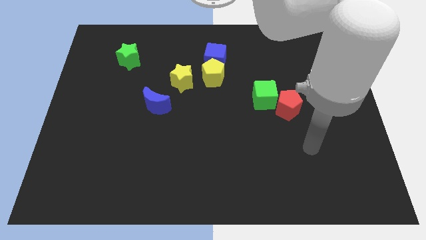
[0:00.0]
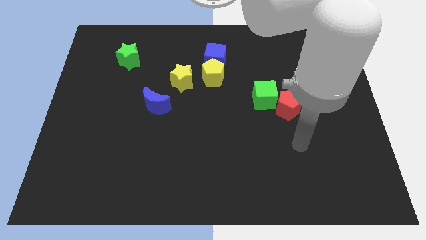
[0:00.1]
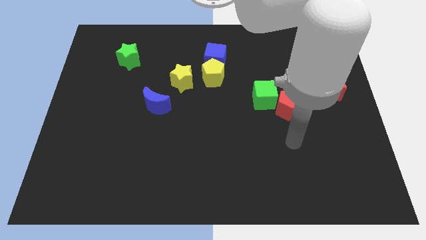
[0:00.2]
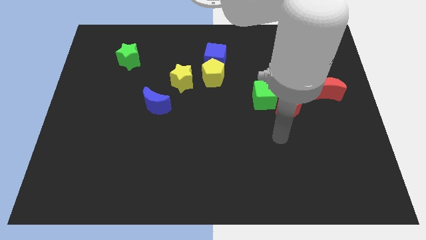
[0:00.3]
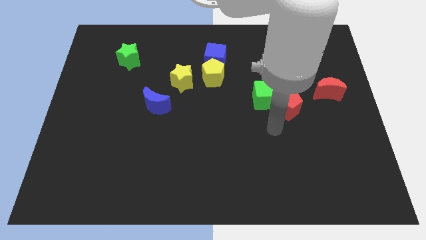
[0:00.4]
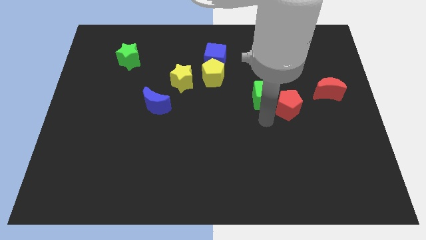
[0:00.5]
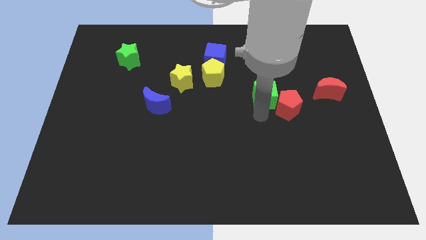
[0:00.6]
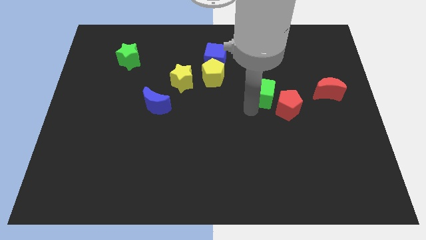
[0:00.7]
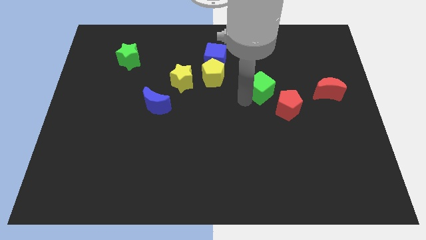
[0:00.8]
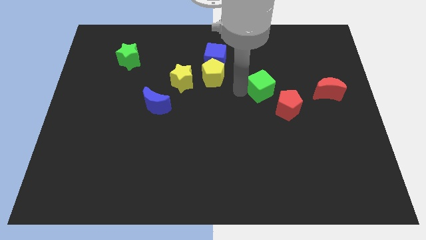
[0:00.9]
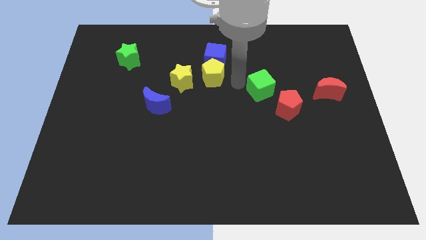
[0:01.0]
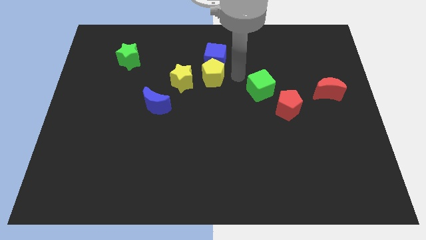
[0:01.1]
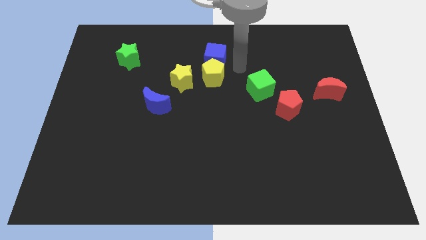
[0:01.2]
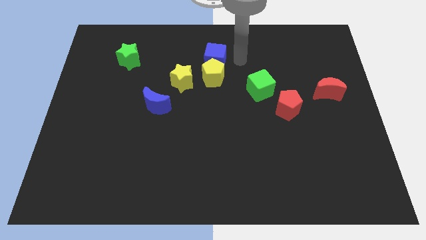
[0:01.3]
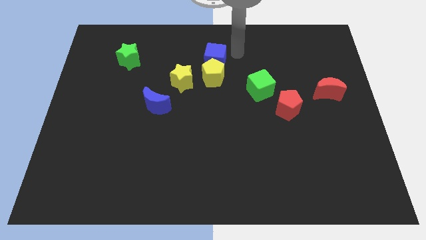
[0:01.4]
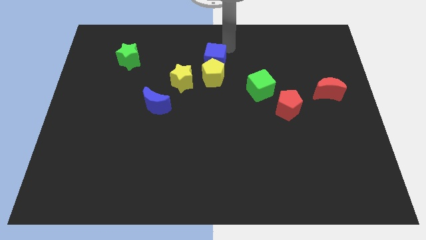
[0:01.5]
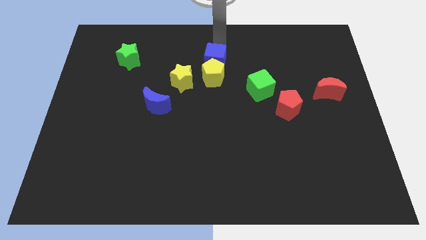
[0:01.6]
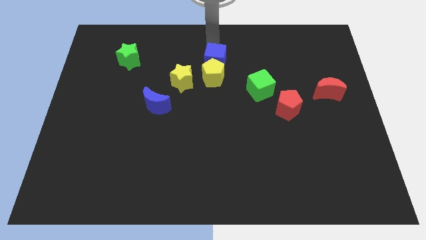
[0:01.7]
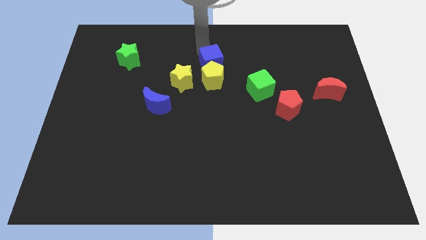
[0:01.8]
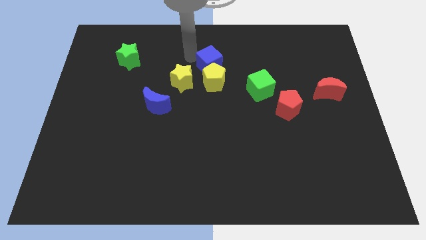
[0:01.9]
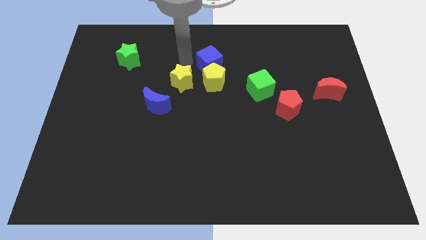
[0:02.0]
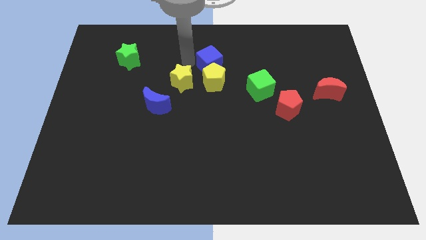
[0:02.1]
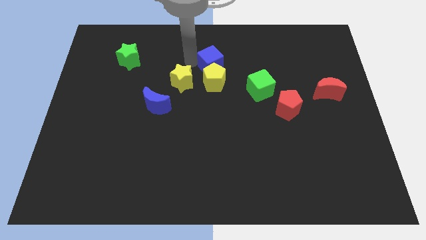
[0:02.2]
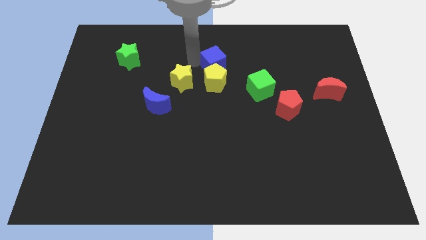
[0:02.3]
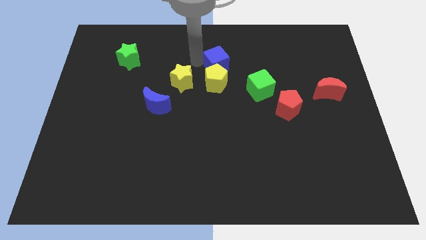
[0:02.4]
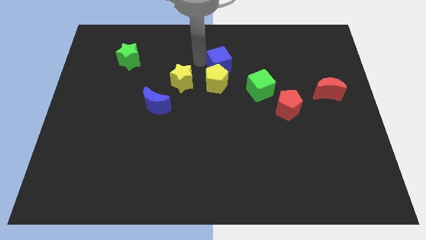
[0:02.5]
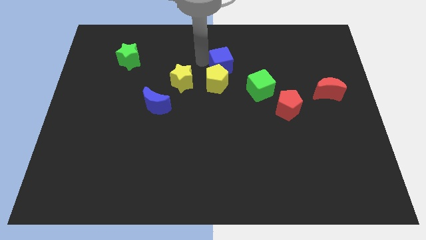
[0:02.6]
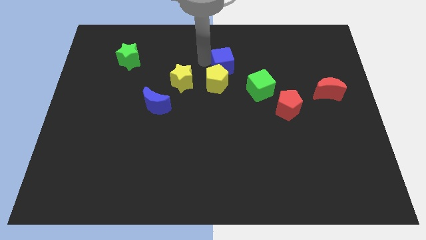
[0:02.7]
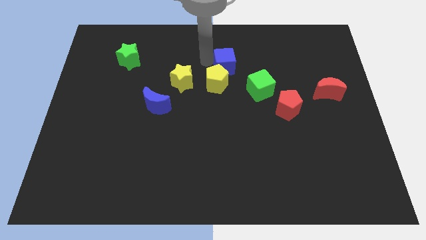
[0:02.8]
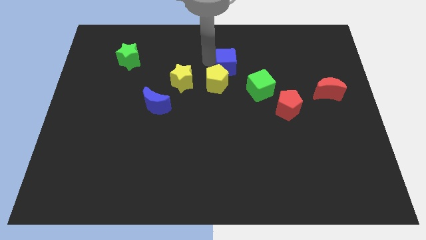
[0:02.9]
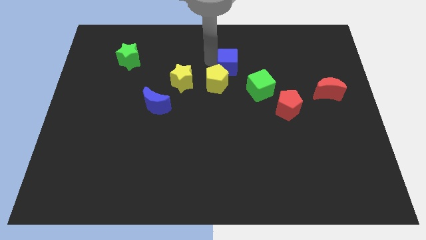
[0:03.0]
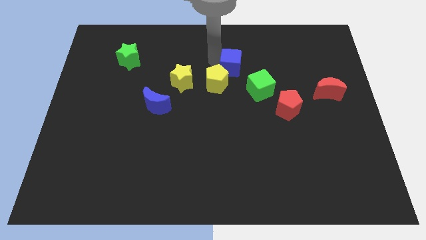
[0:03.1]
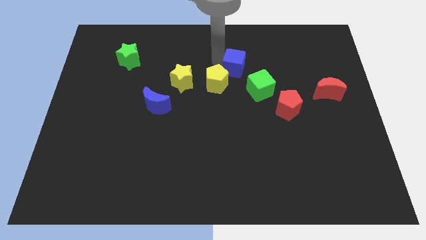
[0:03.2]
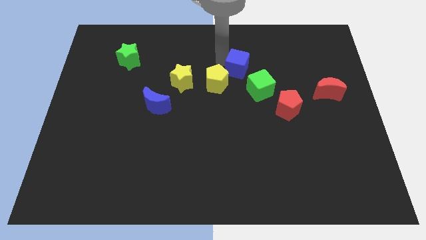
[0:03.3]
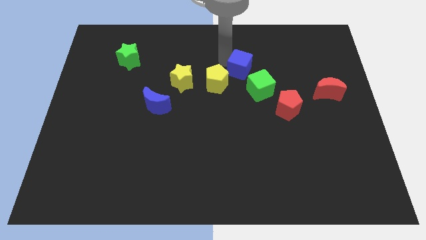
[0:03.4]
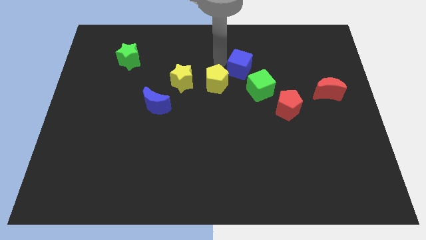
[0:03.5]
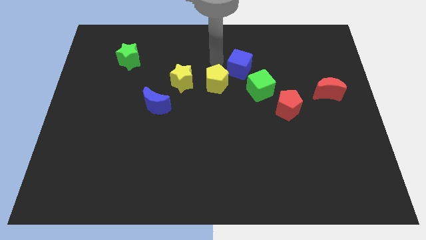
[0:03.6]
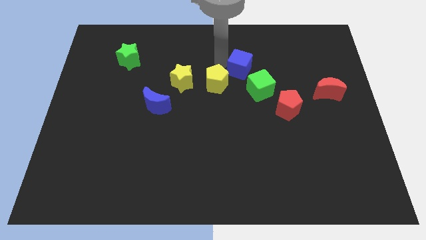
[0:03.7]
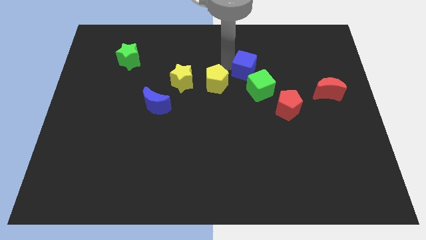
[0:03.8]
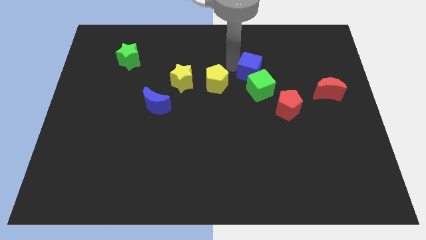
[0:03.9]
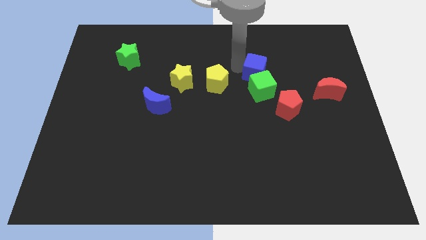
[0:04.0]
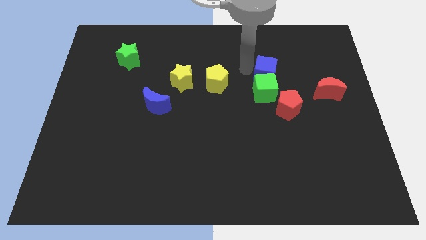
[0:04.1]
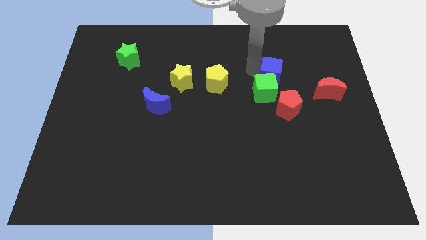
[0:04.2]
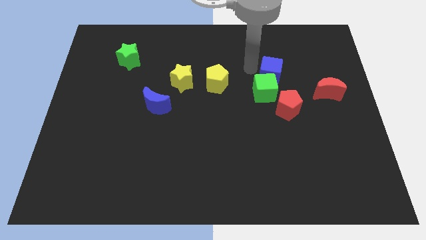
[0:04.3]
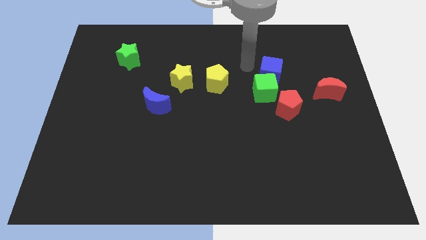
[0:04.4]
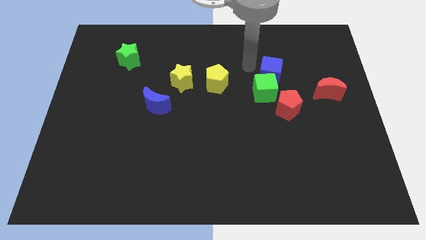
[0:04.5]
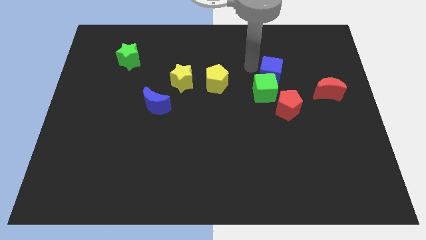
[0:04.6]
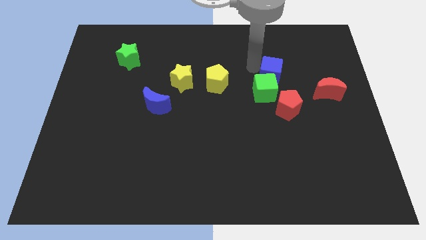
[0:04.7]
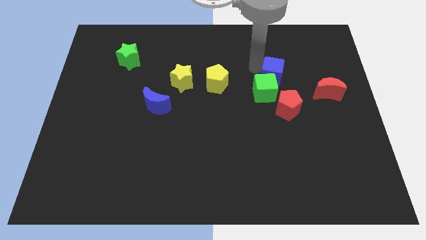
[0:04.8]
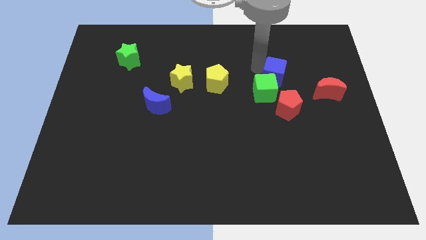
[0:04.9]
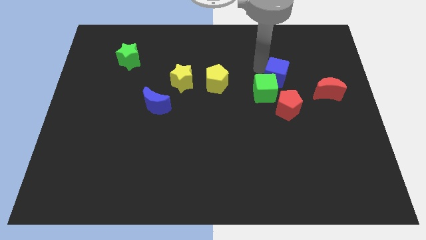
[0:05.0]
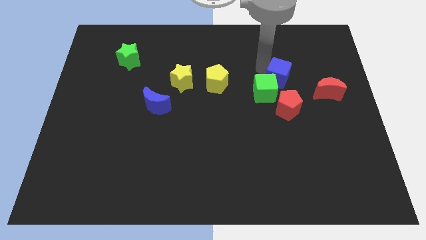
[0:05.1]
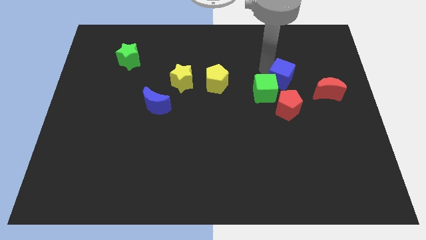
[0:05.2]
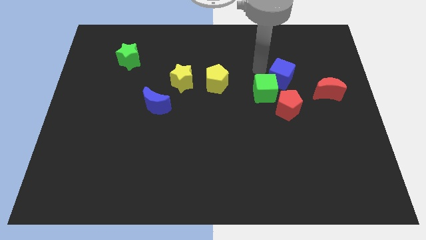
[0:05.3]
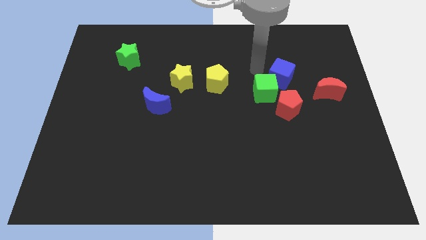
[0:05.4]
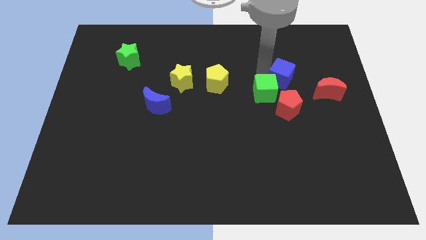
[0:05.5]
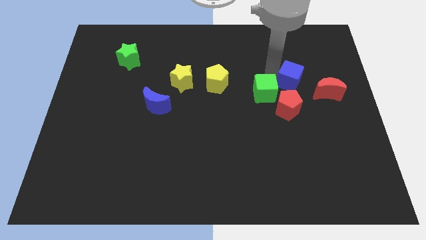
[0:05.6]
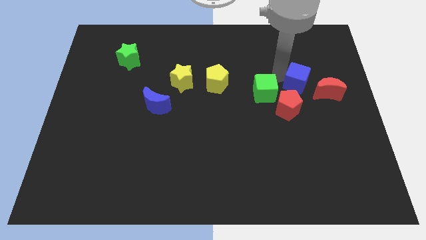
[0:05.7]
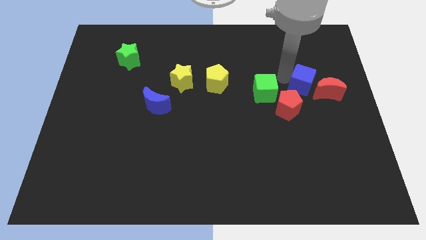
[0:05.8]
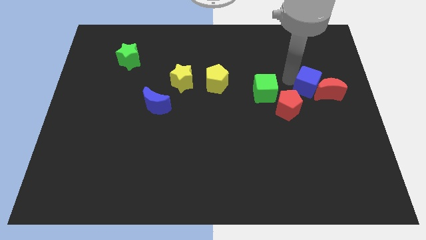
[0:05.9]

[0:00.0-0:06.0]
put the blue cube towards the red moon

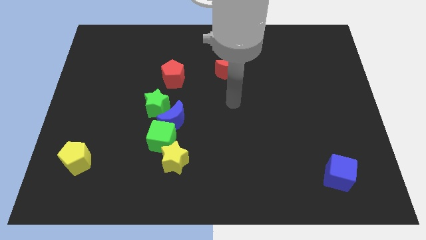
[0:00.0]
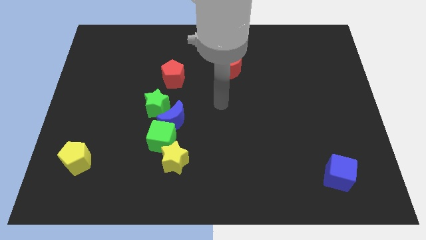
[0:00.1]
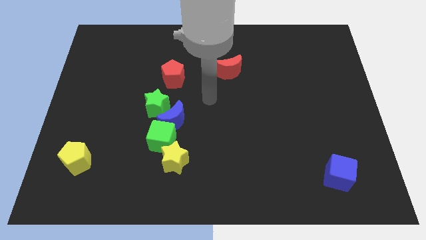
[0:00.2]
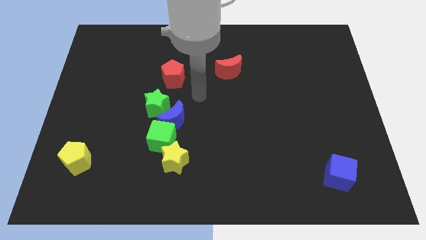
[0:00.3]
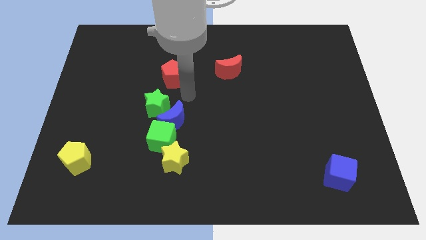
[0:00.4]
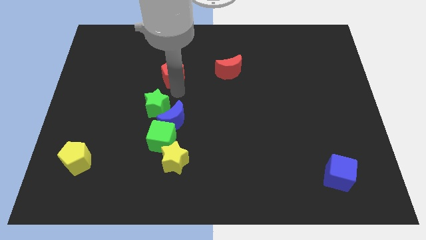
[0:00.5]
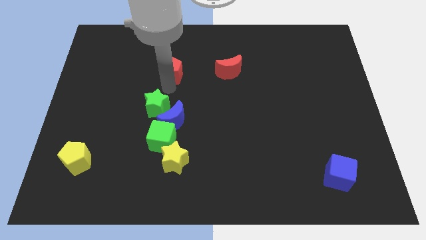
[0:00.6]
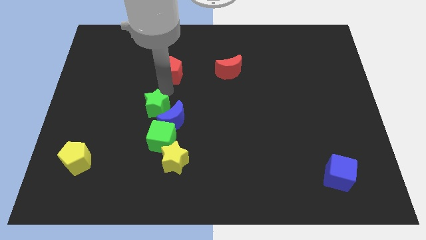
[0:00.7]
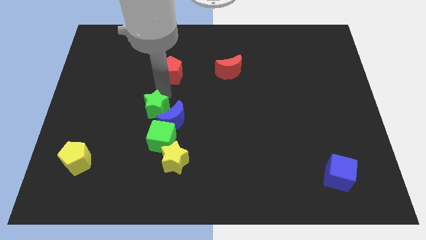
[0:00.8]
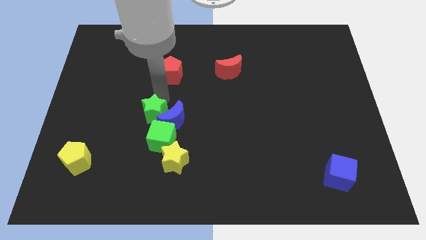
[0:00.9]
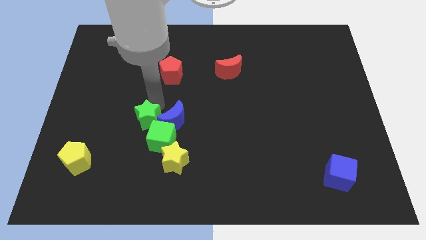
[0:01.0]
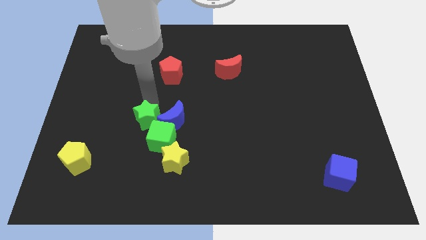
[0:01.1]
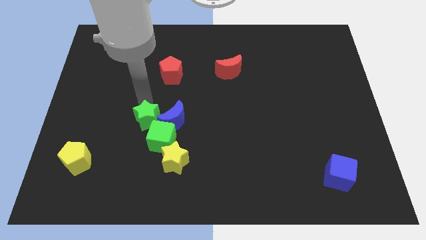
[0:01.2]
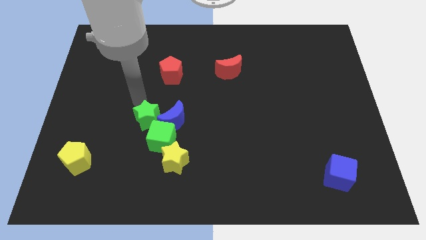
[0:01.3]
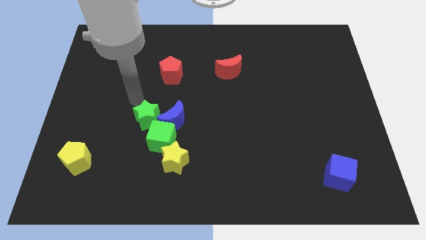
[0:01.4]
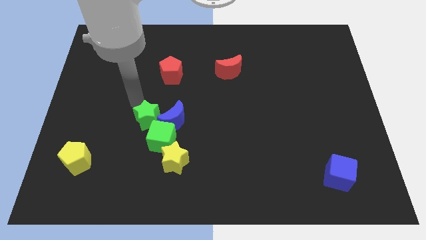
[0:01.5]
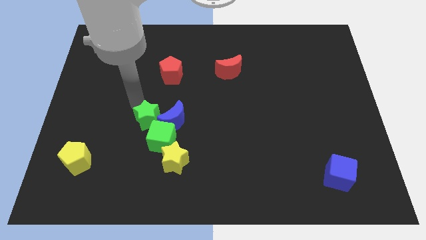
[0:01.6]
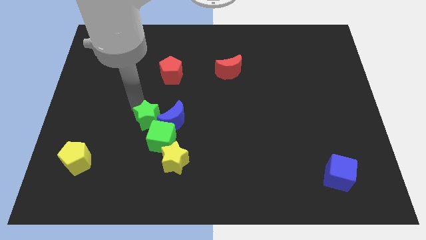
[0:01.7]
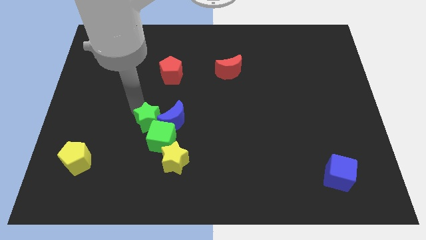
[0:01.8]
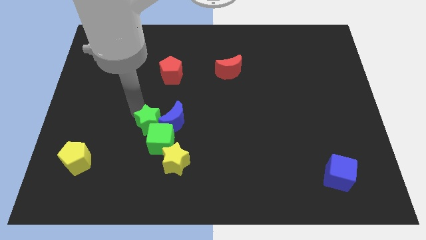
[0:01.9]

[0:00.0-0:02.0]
move the green star to the green cube
